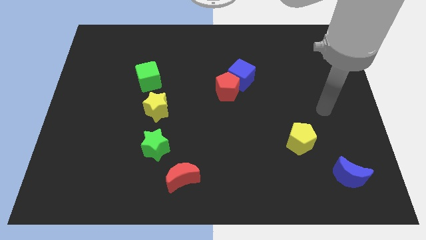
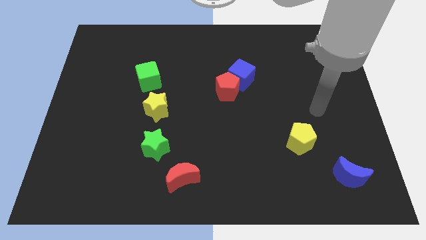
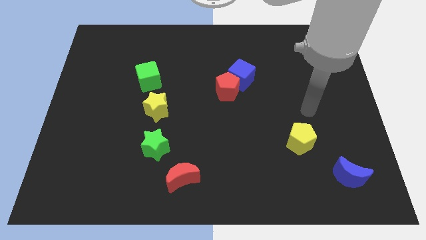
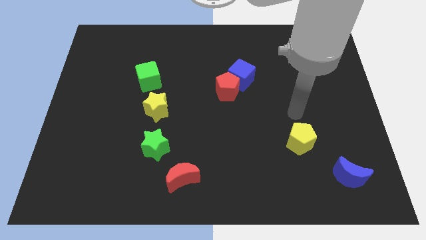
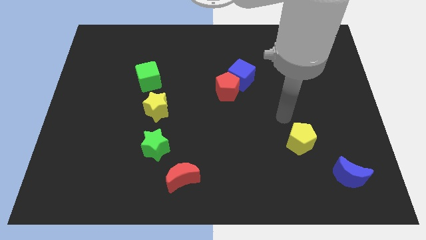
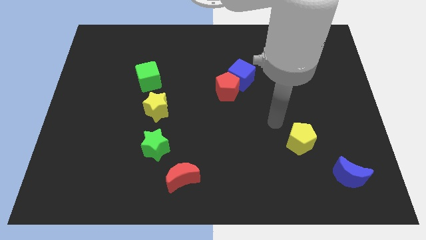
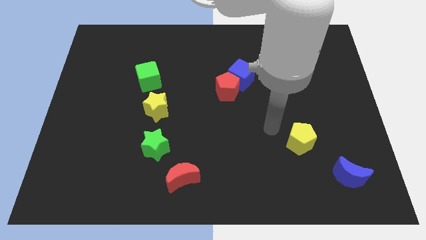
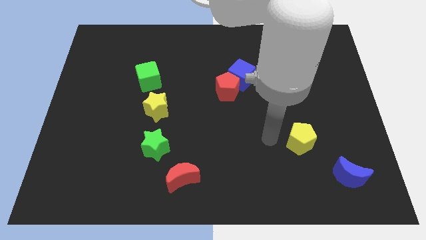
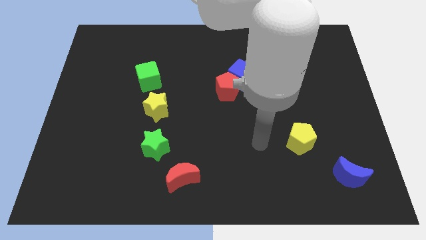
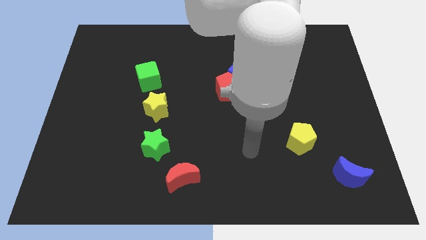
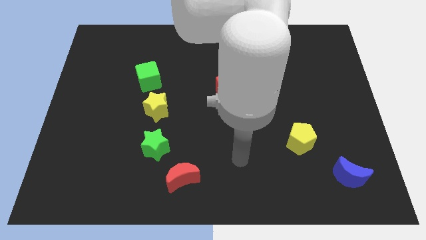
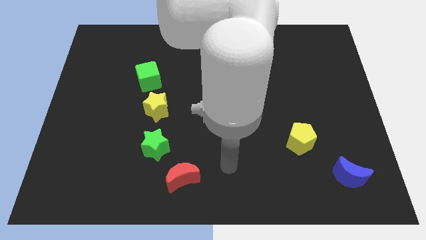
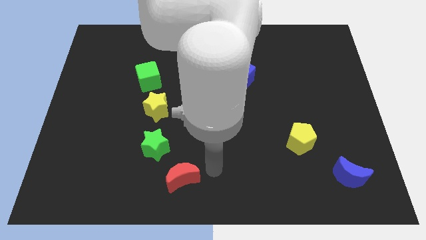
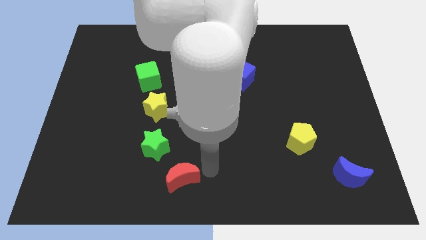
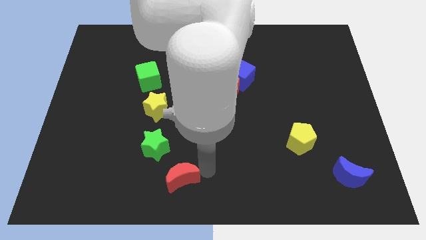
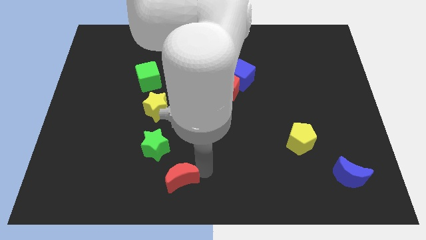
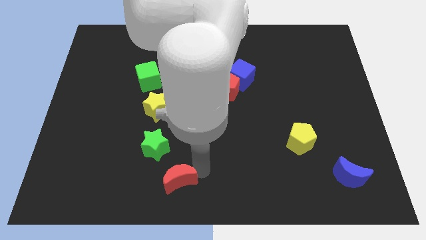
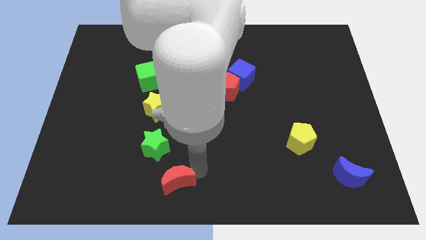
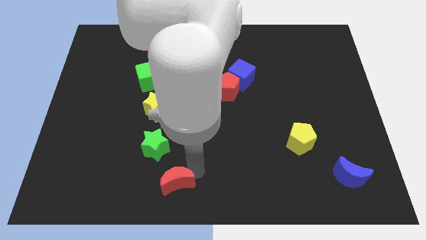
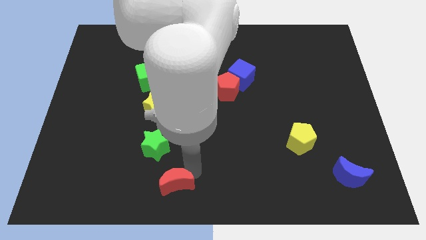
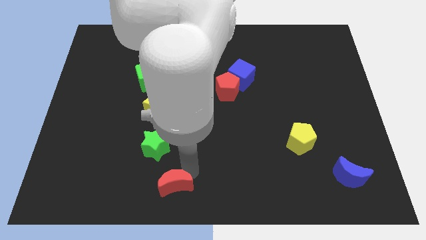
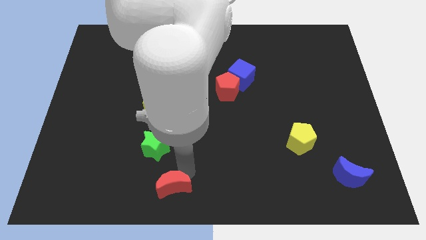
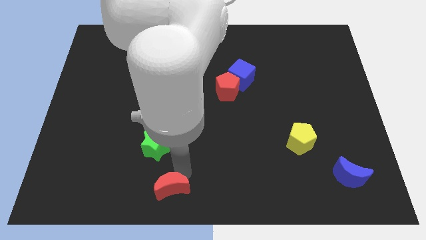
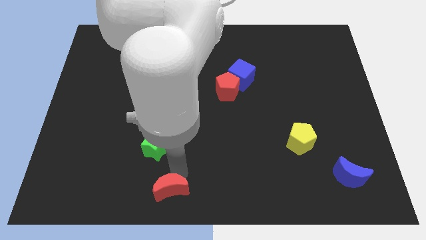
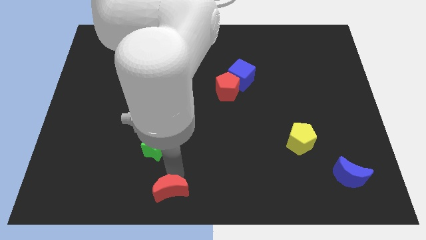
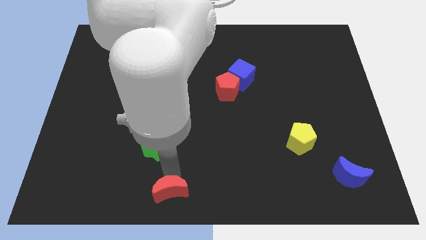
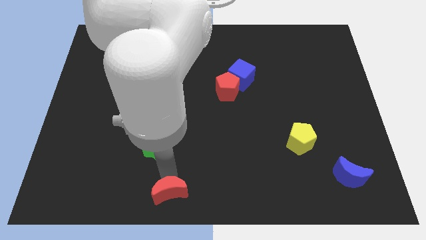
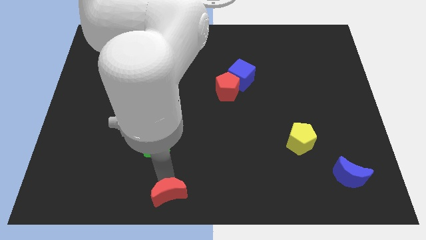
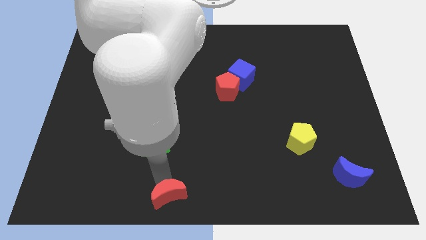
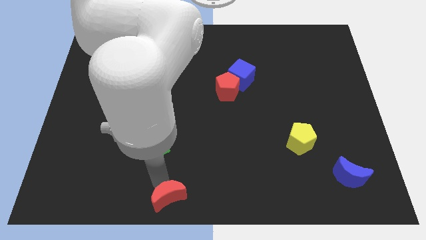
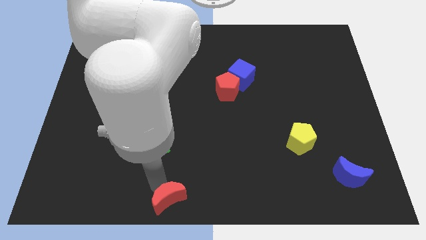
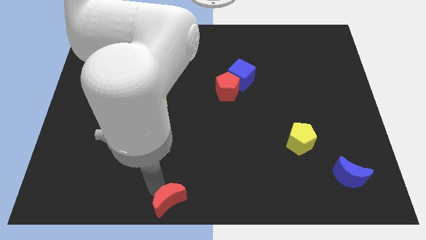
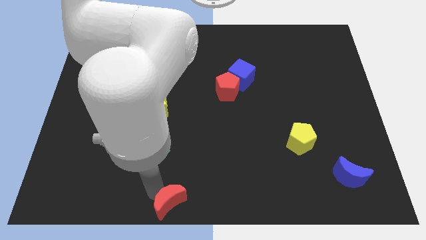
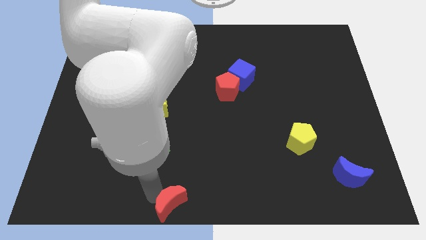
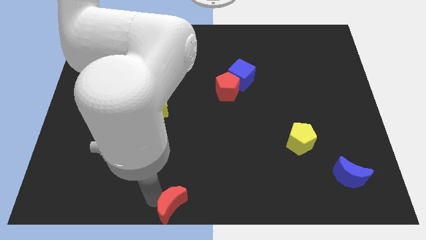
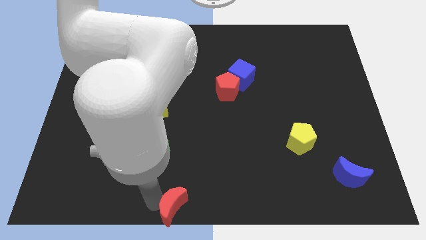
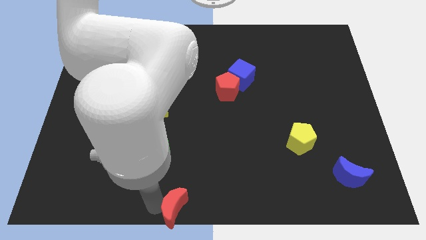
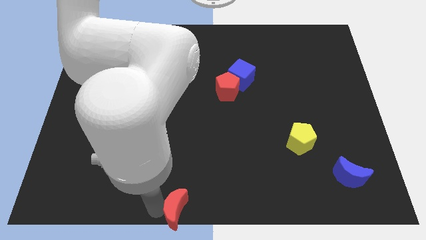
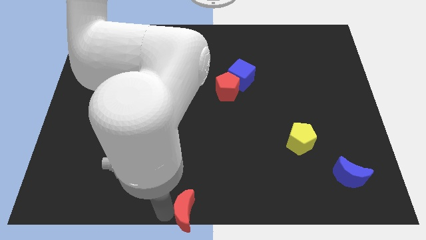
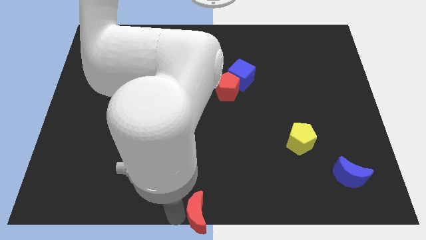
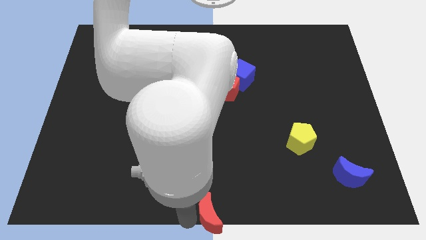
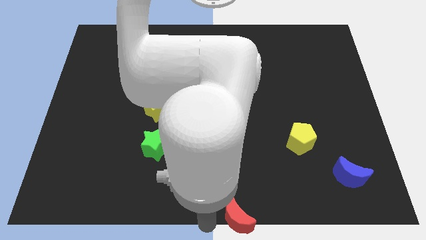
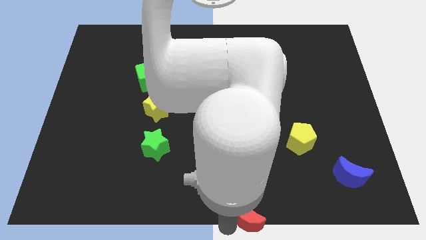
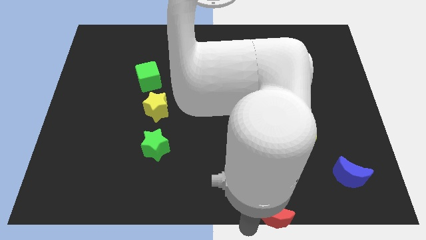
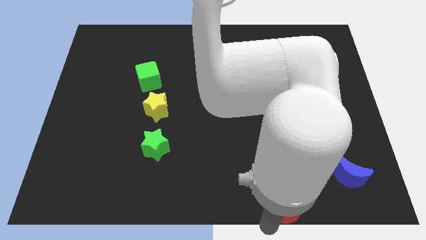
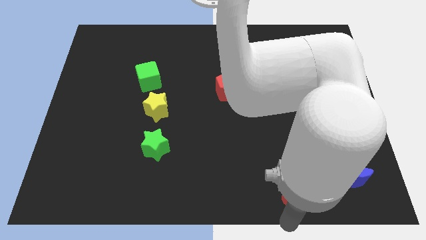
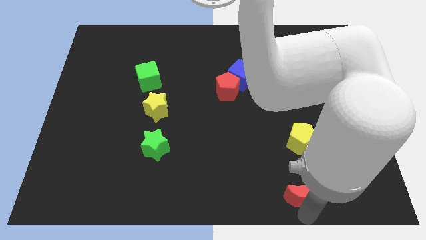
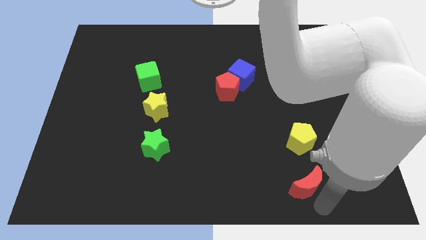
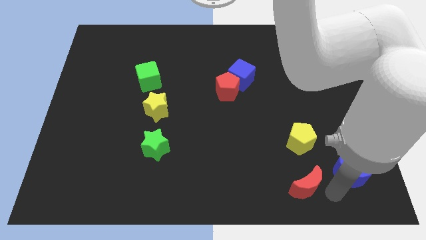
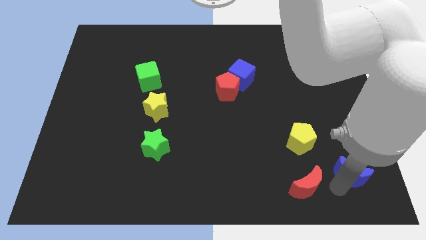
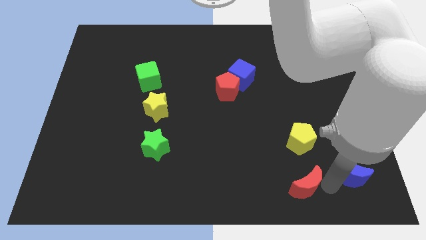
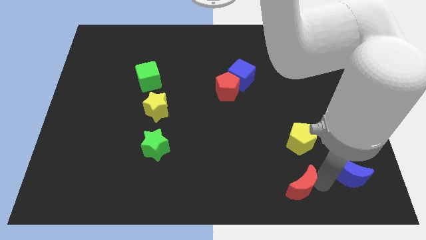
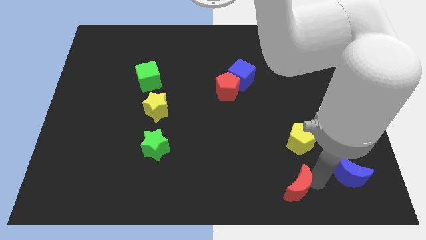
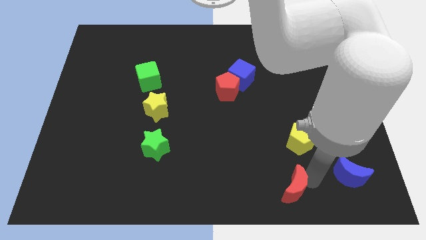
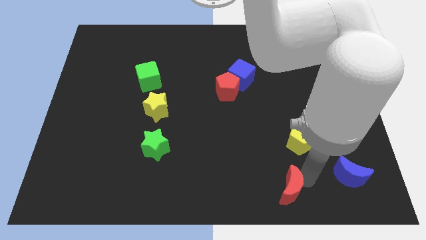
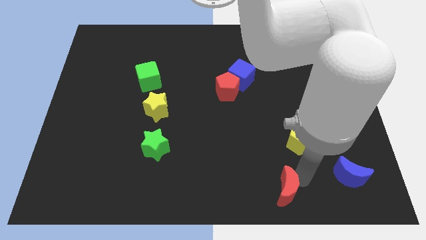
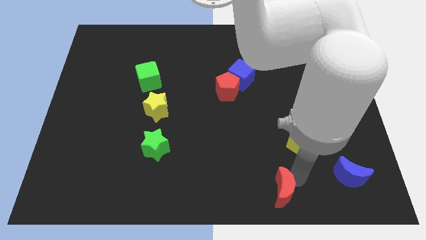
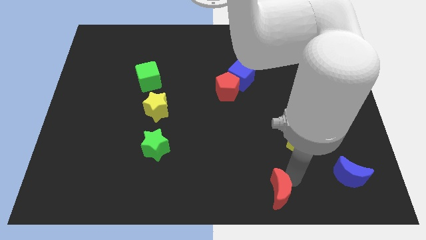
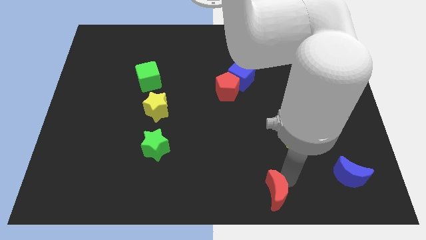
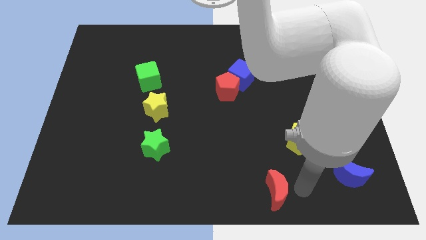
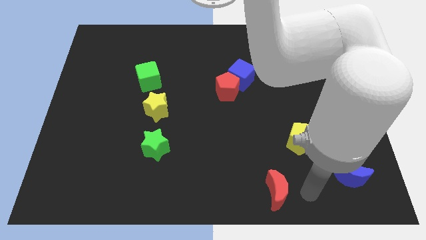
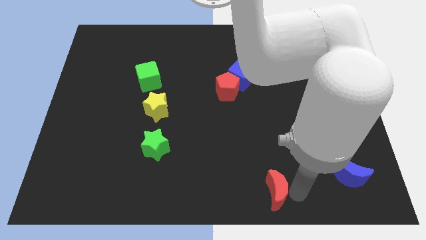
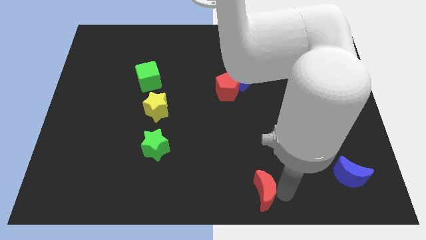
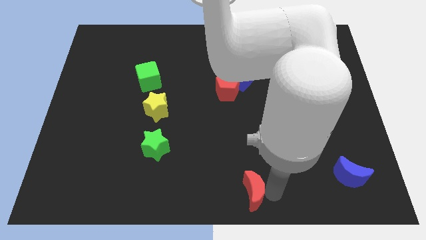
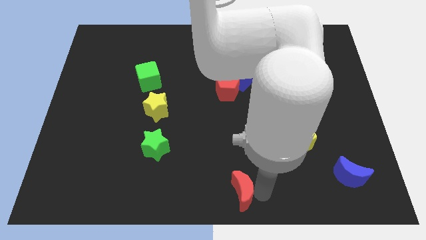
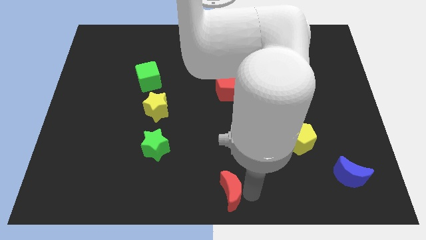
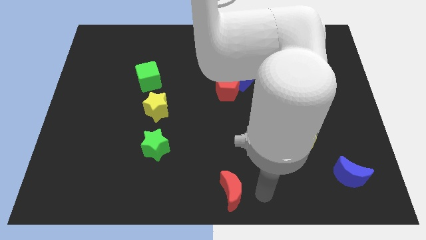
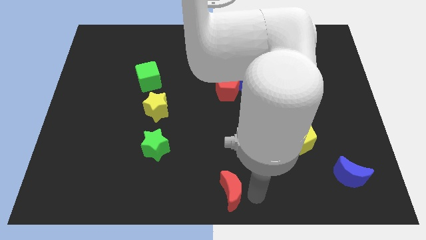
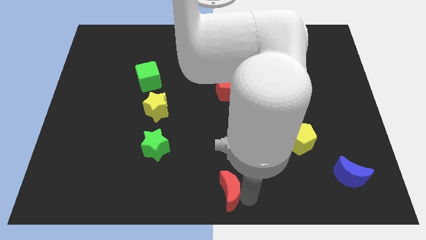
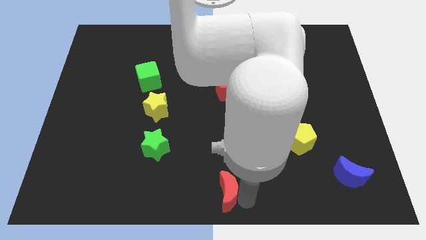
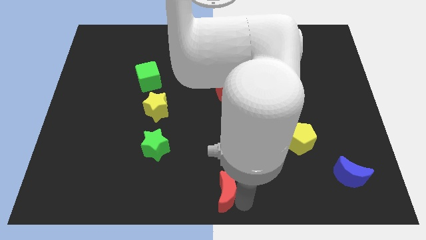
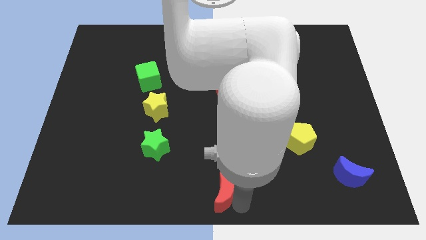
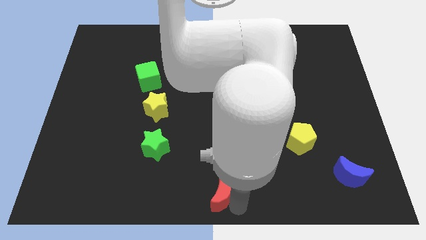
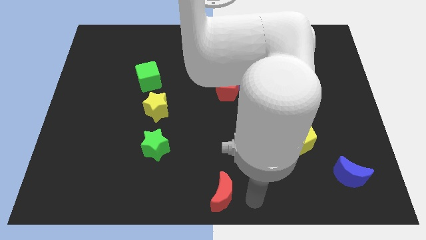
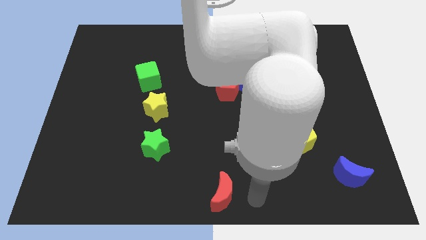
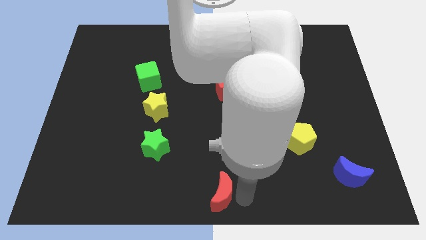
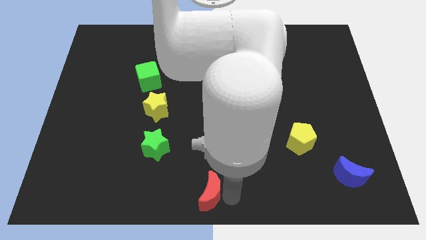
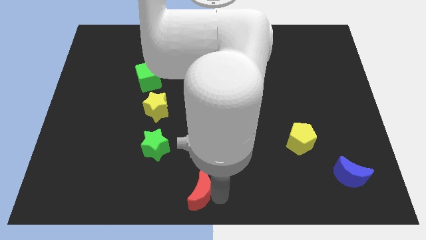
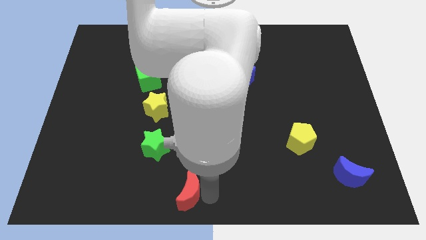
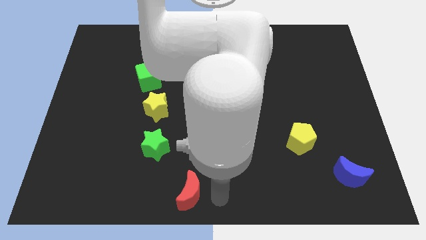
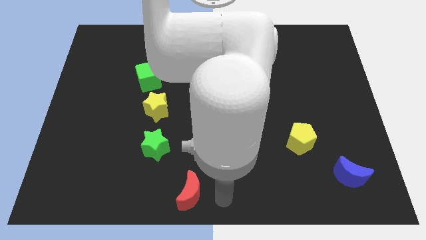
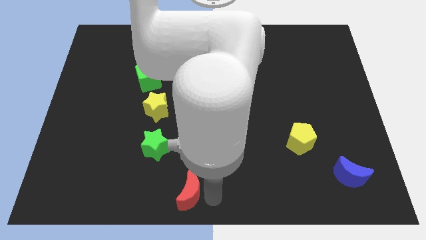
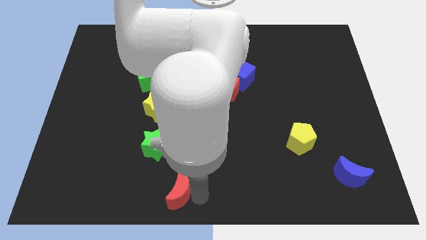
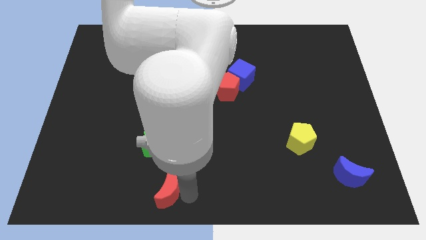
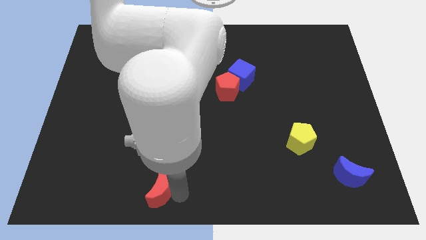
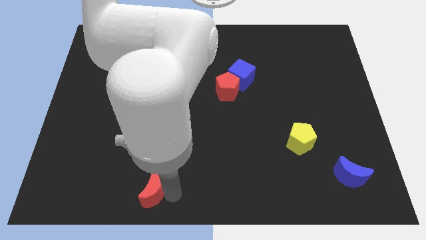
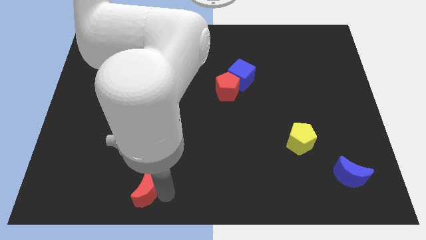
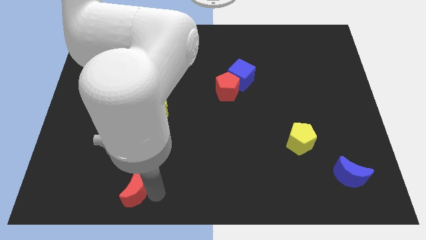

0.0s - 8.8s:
push the red moon to the left a bit
